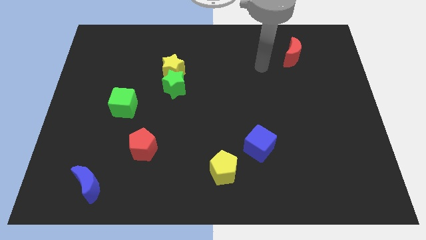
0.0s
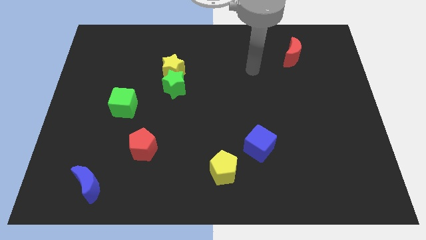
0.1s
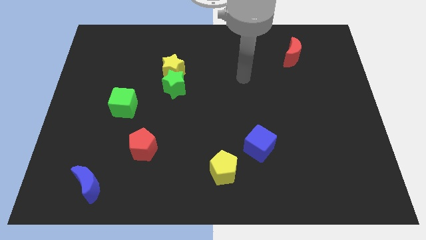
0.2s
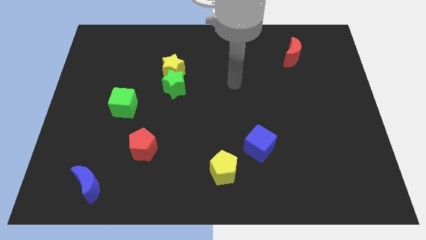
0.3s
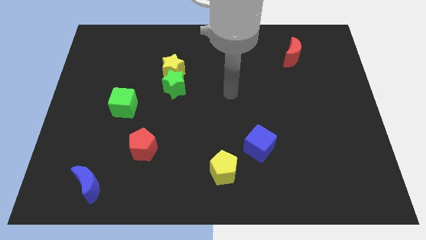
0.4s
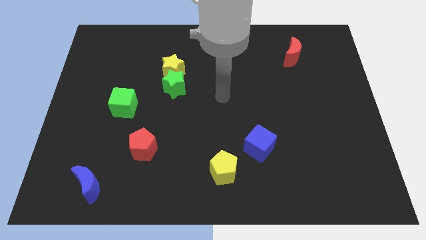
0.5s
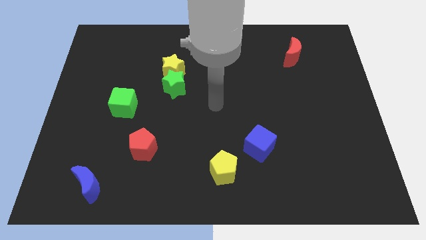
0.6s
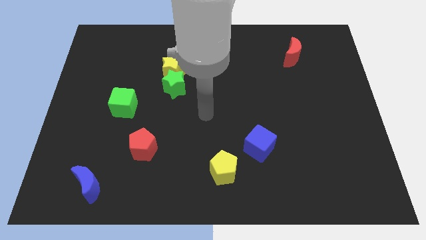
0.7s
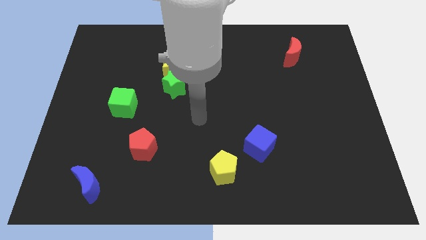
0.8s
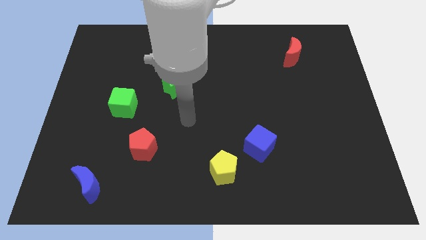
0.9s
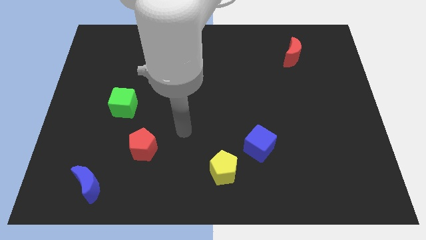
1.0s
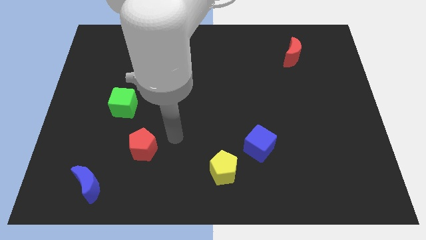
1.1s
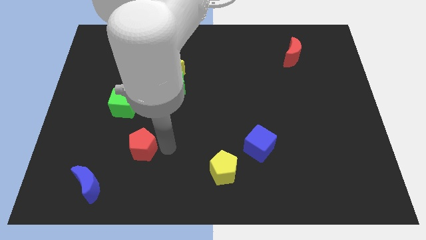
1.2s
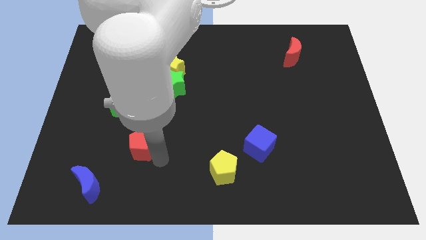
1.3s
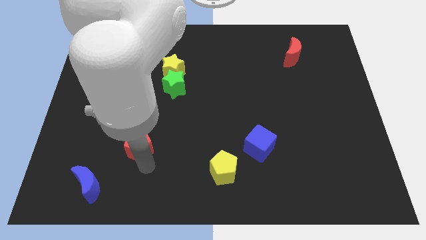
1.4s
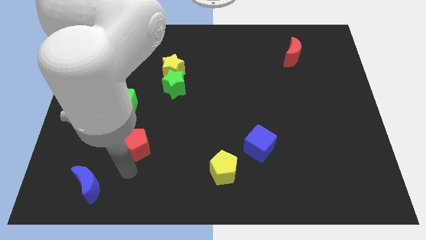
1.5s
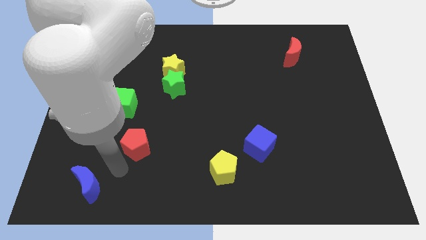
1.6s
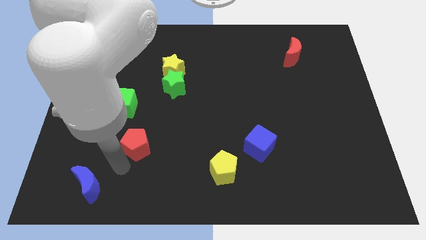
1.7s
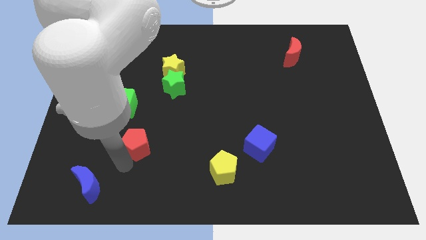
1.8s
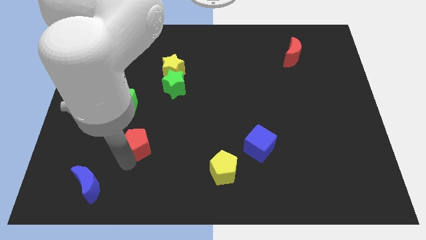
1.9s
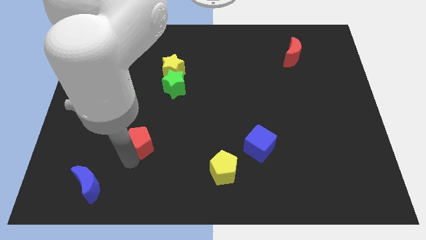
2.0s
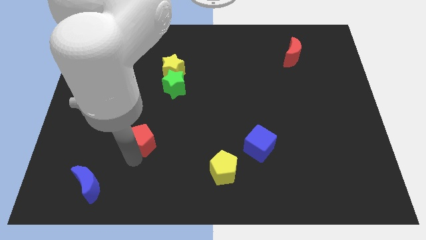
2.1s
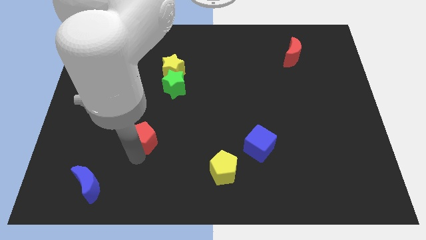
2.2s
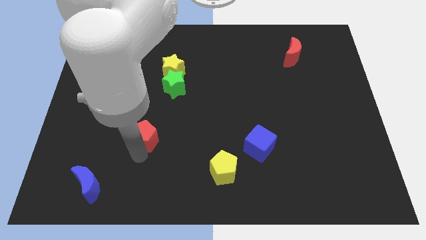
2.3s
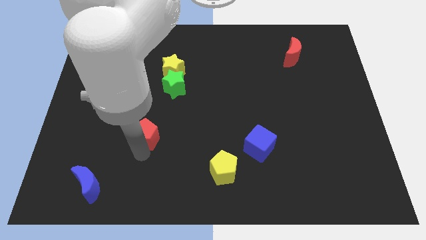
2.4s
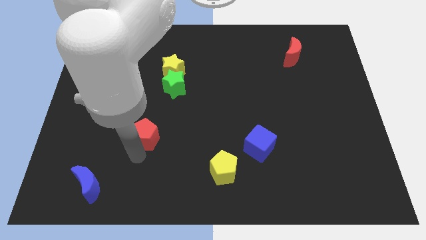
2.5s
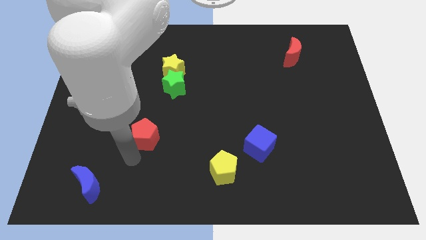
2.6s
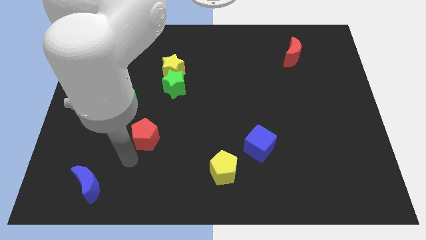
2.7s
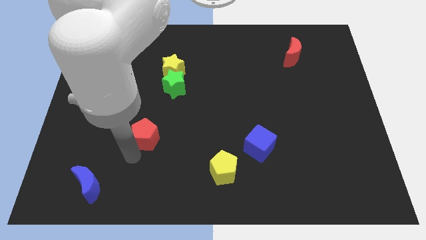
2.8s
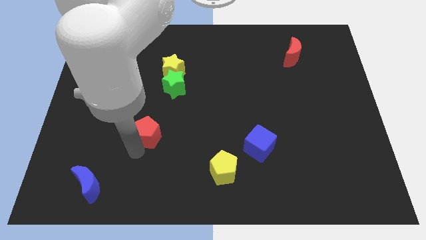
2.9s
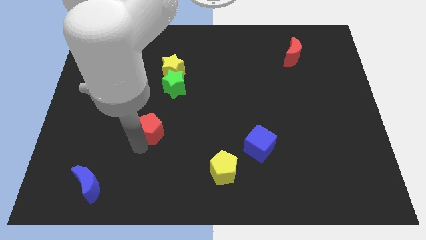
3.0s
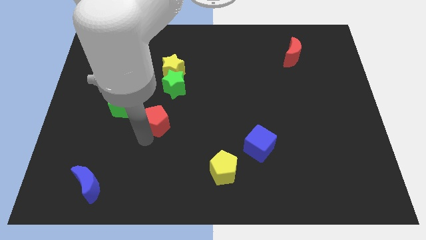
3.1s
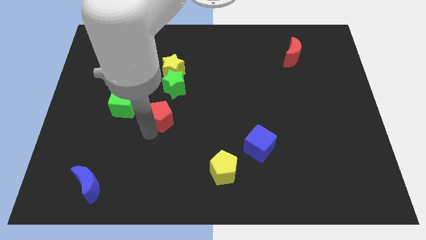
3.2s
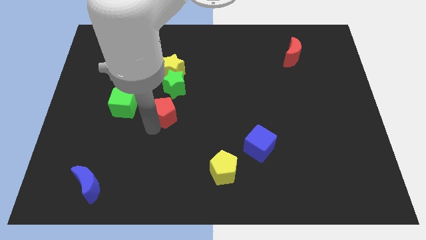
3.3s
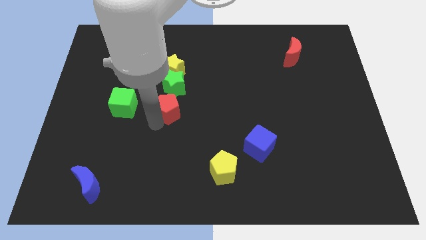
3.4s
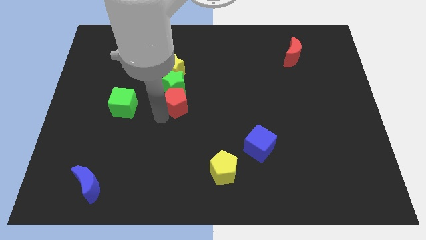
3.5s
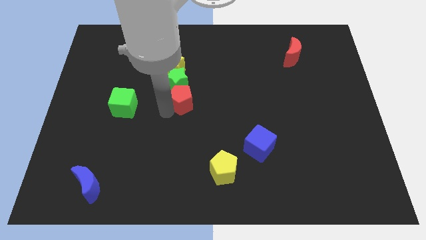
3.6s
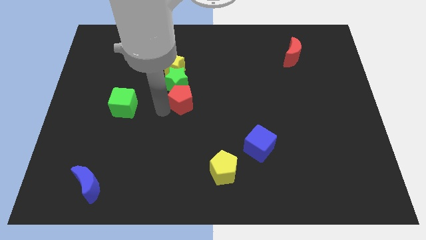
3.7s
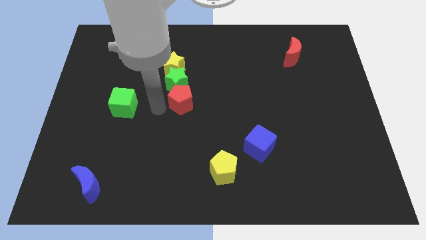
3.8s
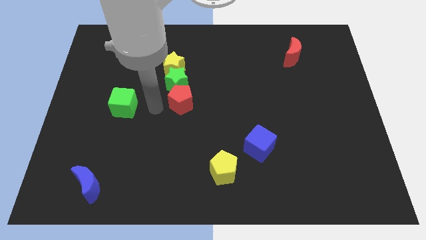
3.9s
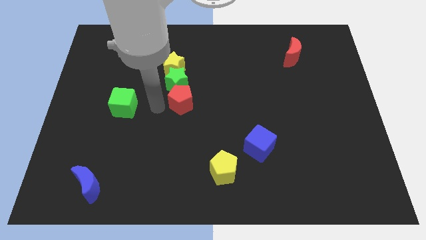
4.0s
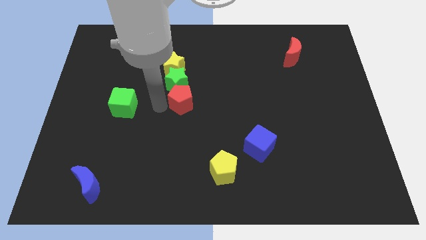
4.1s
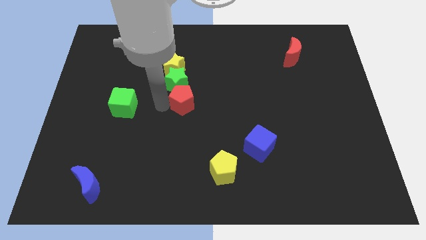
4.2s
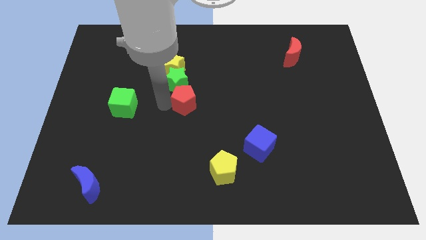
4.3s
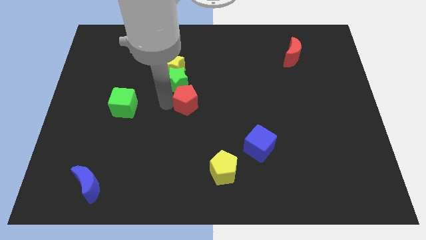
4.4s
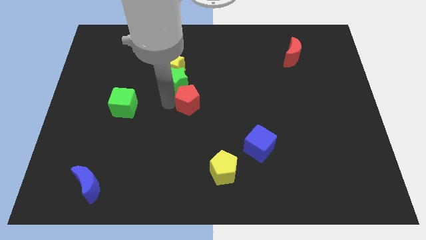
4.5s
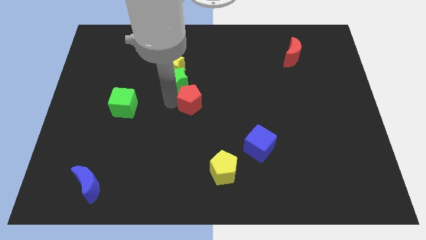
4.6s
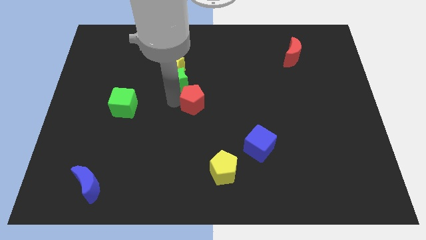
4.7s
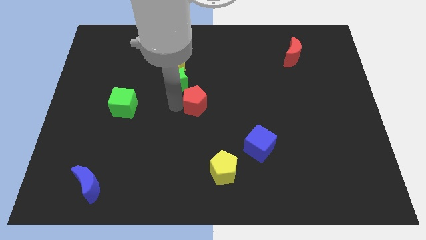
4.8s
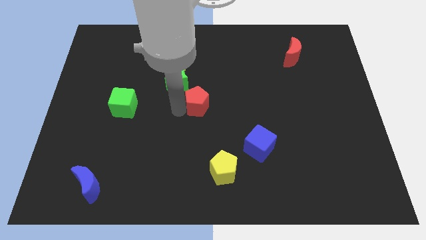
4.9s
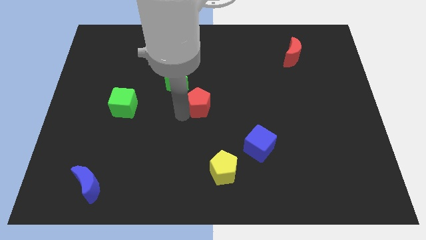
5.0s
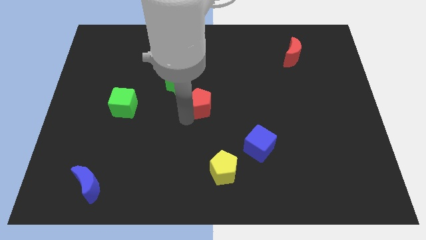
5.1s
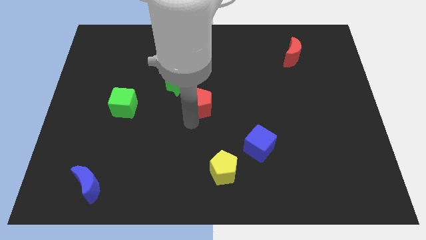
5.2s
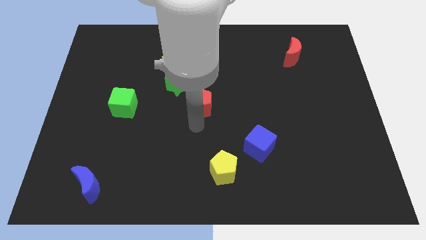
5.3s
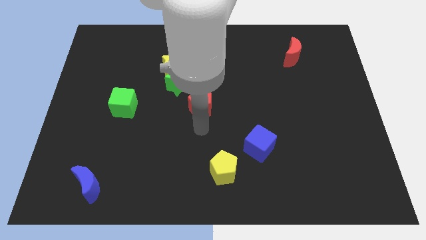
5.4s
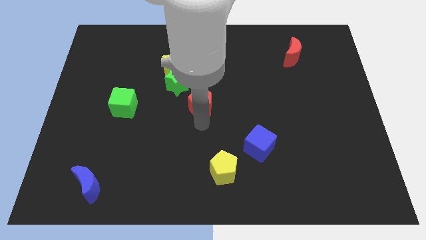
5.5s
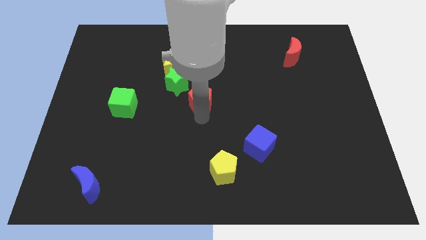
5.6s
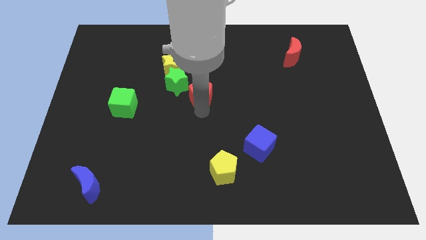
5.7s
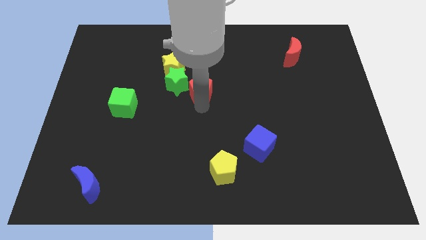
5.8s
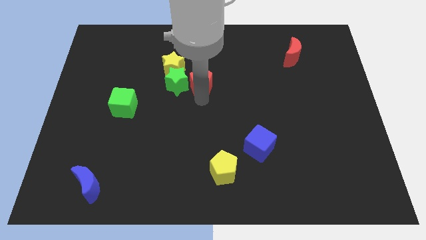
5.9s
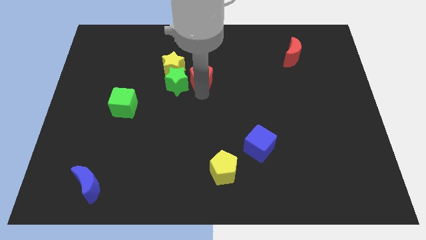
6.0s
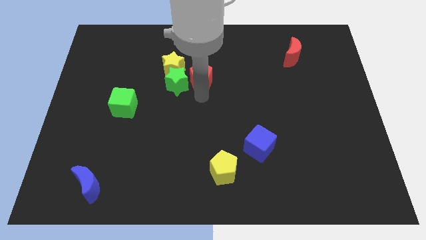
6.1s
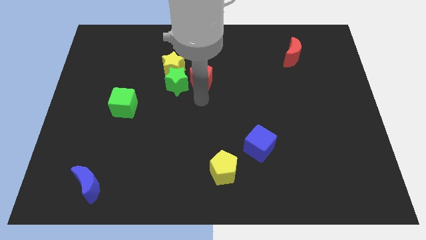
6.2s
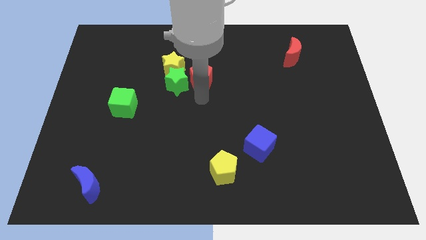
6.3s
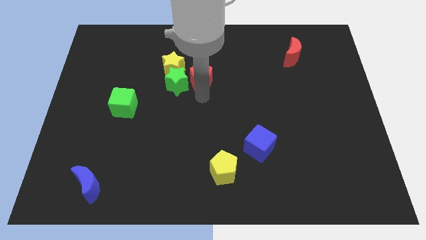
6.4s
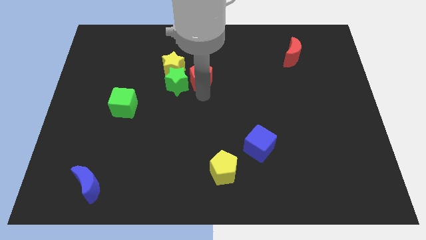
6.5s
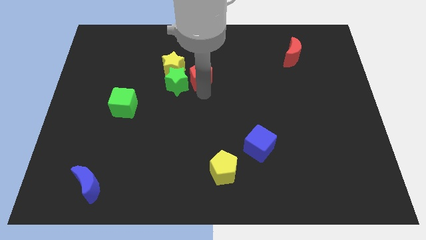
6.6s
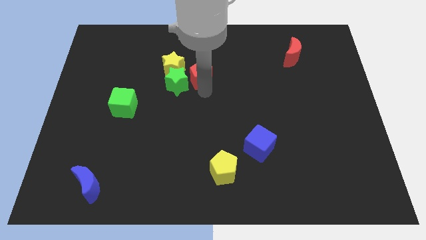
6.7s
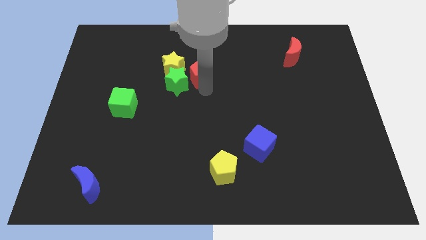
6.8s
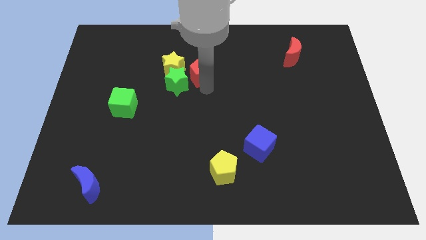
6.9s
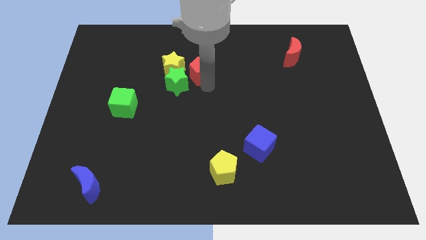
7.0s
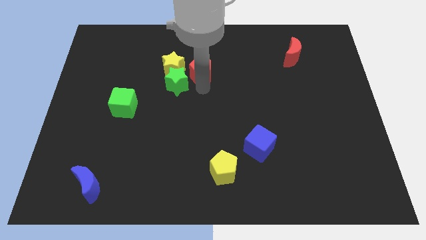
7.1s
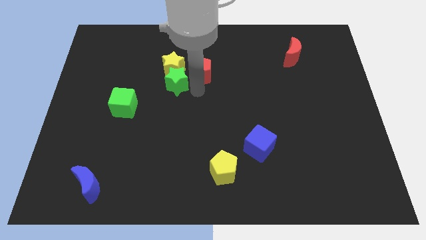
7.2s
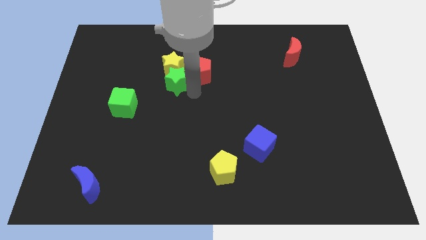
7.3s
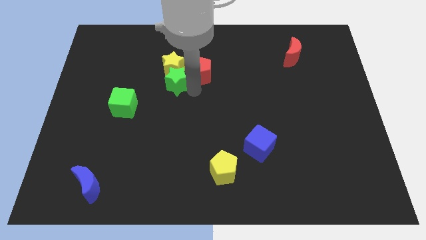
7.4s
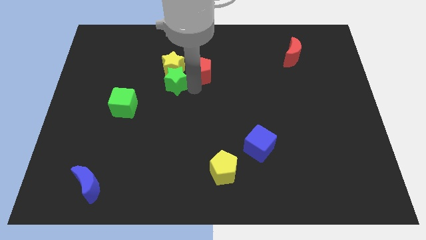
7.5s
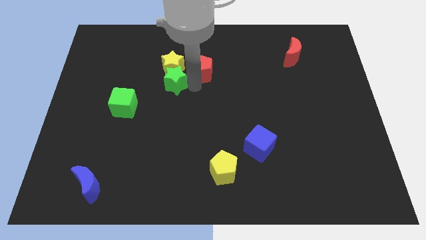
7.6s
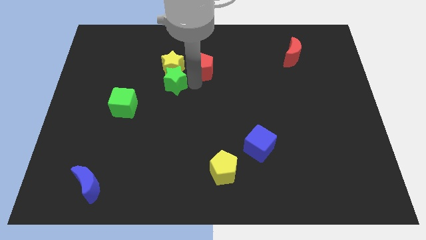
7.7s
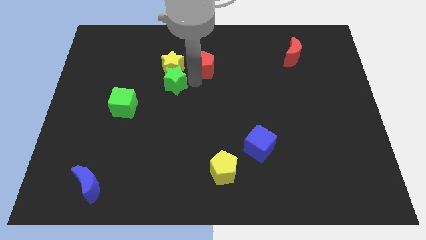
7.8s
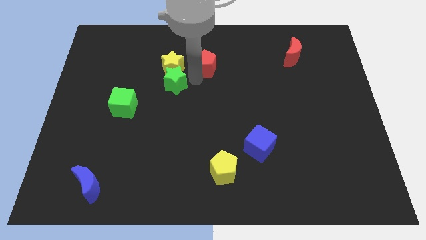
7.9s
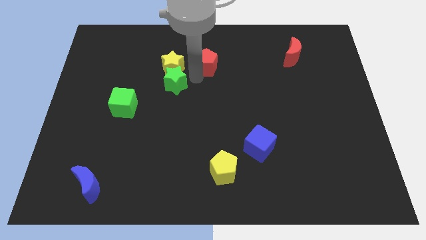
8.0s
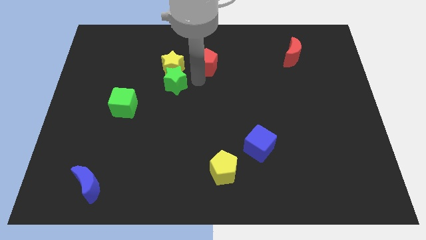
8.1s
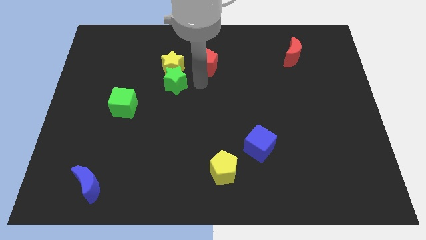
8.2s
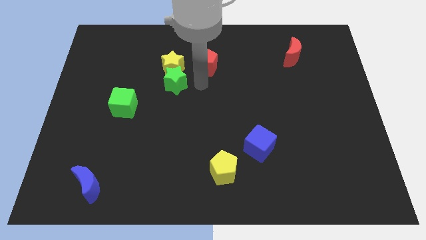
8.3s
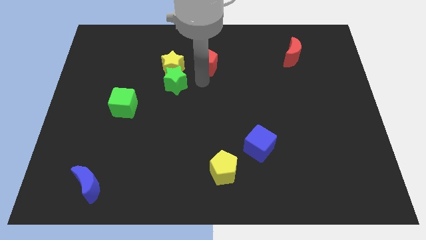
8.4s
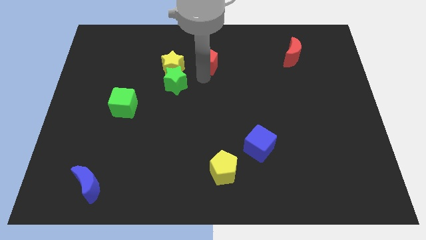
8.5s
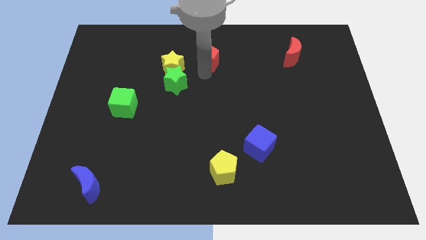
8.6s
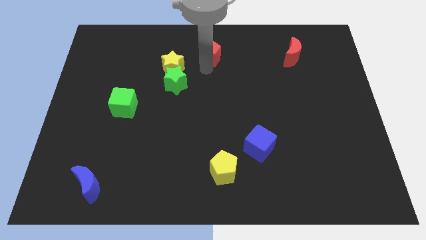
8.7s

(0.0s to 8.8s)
slide the red pentagon to the towards your base
